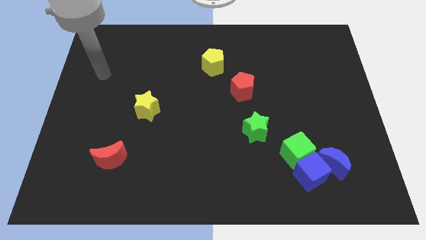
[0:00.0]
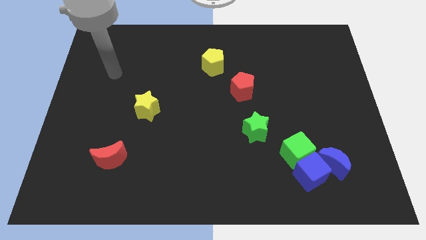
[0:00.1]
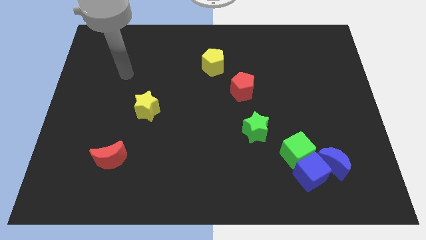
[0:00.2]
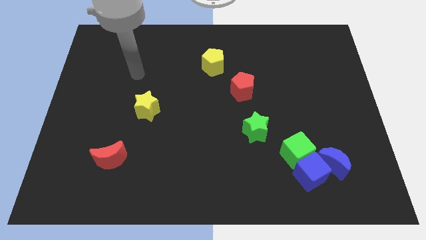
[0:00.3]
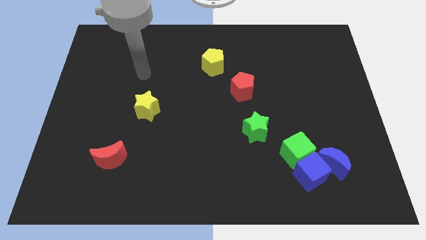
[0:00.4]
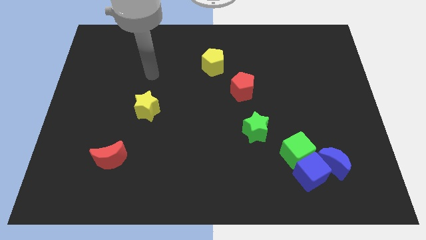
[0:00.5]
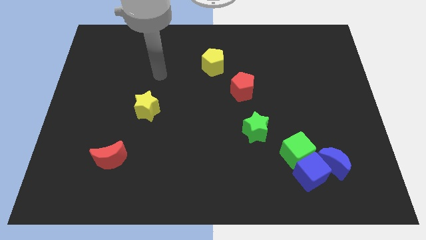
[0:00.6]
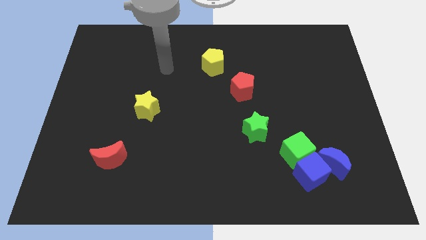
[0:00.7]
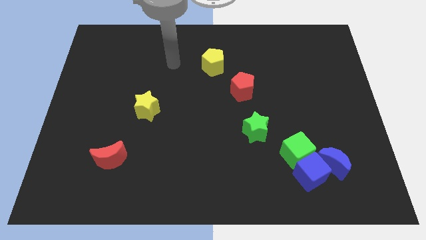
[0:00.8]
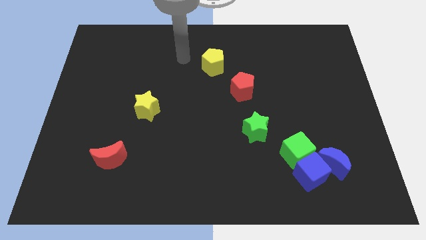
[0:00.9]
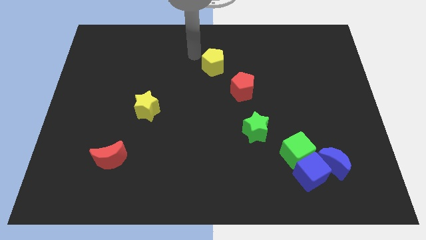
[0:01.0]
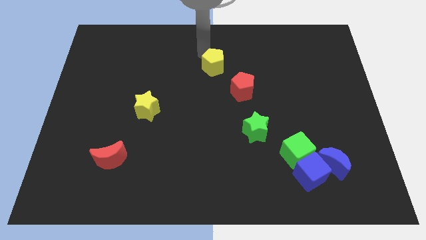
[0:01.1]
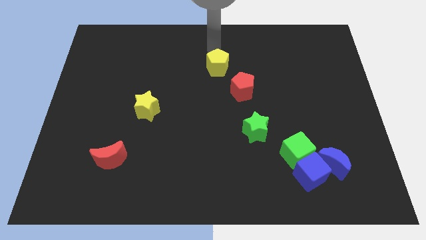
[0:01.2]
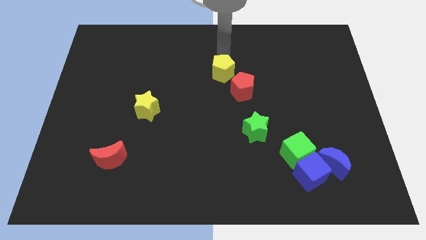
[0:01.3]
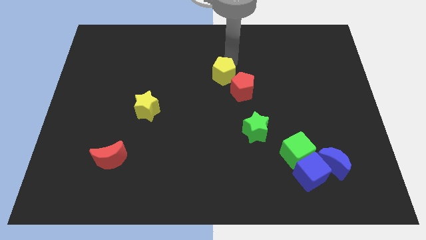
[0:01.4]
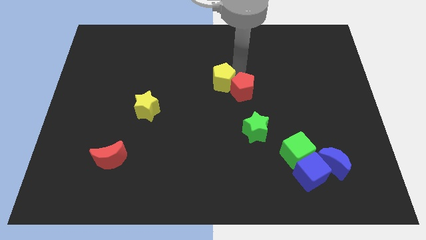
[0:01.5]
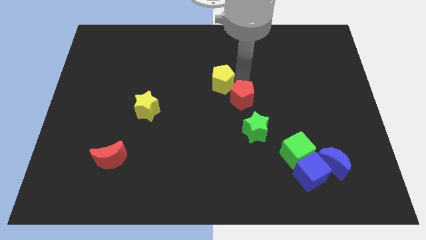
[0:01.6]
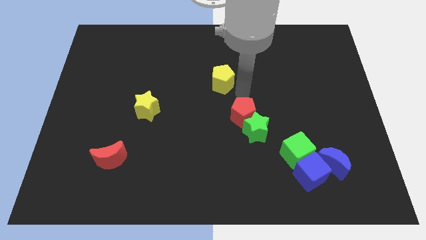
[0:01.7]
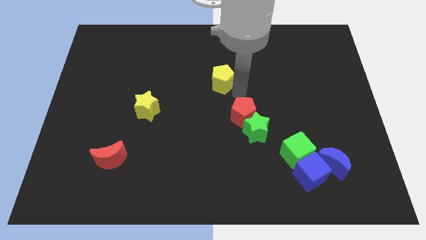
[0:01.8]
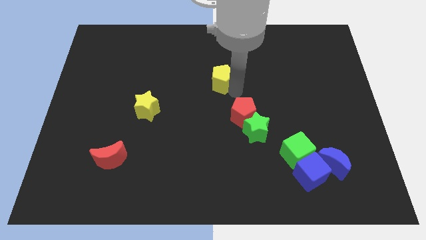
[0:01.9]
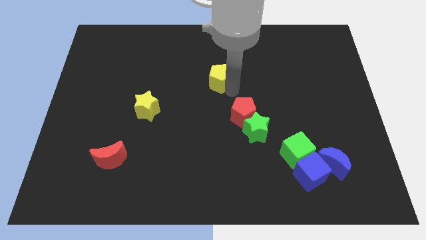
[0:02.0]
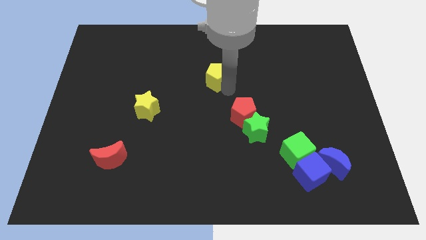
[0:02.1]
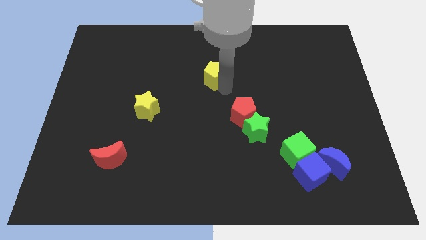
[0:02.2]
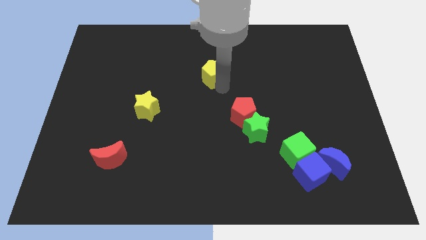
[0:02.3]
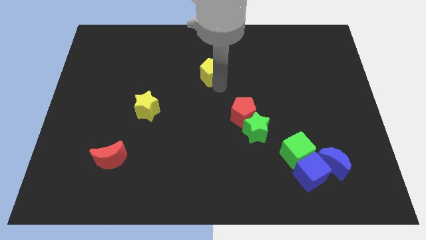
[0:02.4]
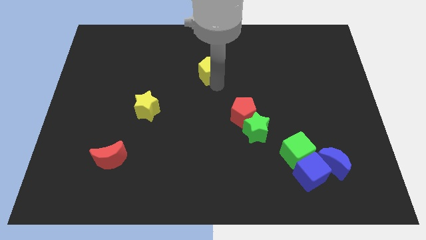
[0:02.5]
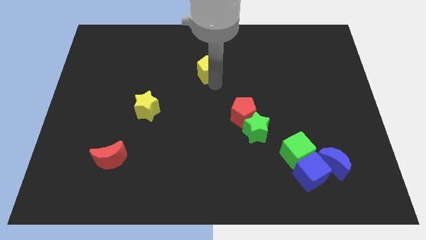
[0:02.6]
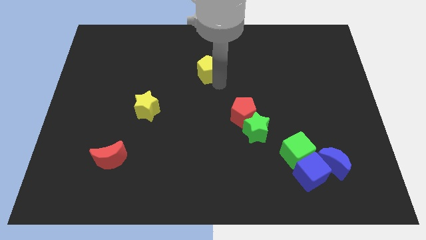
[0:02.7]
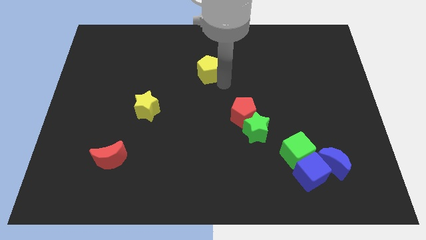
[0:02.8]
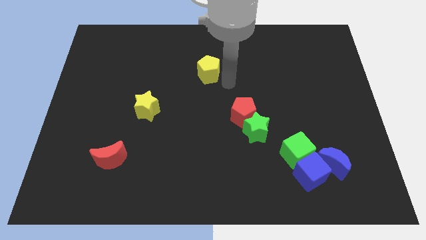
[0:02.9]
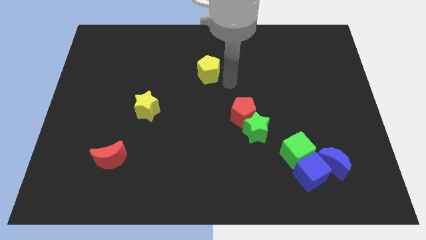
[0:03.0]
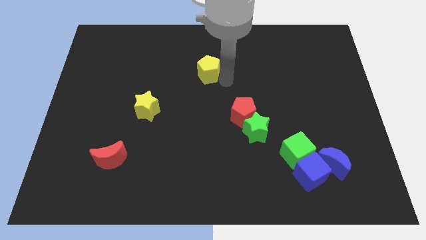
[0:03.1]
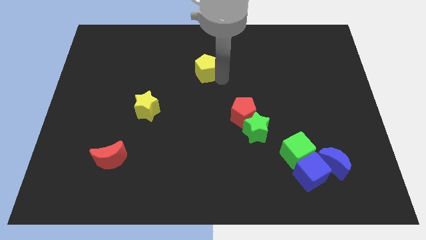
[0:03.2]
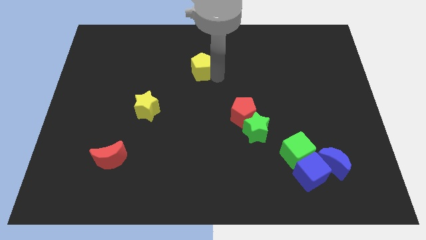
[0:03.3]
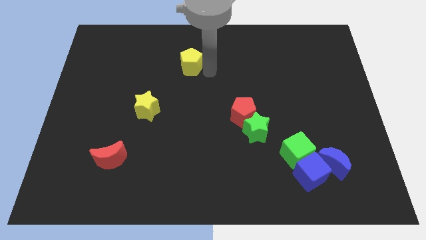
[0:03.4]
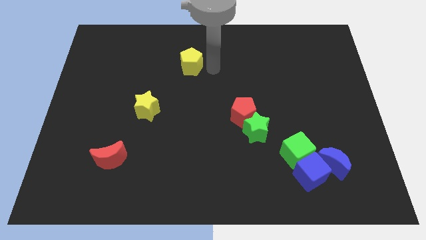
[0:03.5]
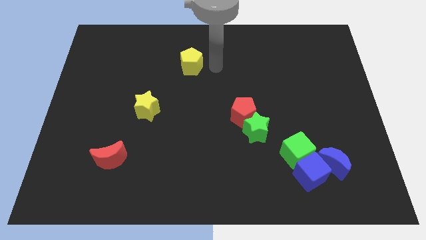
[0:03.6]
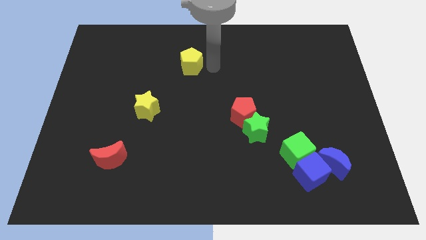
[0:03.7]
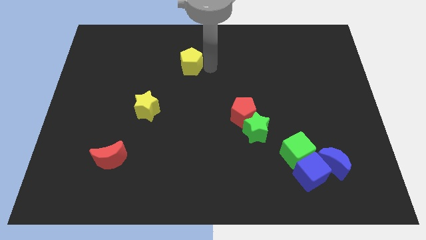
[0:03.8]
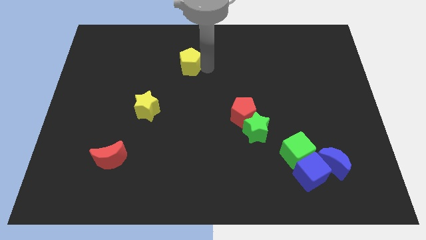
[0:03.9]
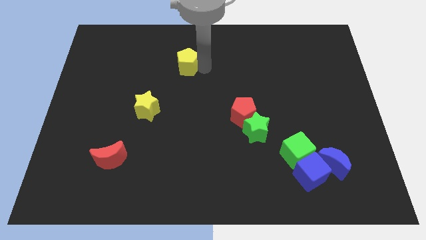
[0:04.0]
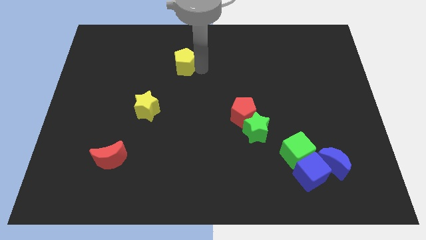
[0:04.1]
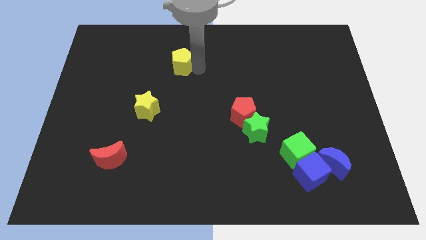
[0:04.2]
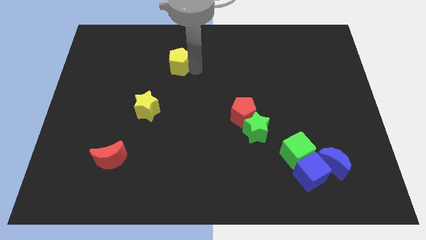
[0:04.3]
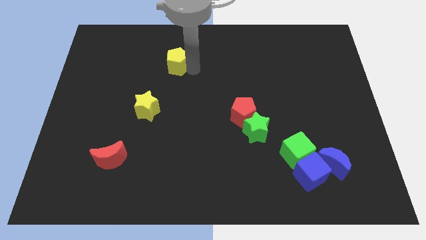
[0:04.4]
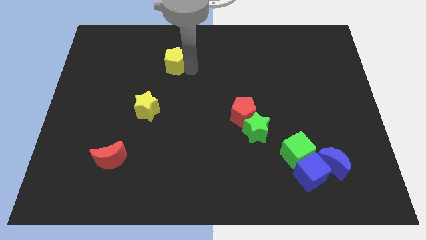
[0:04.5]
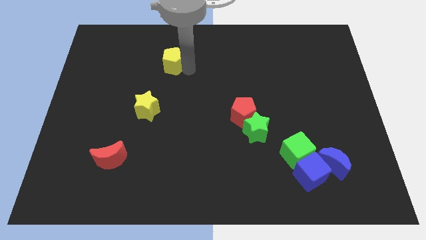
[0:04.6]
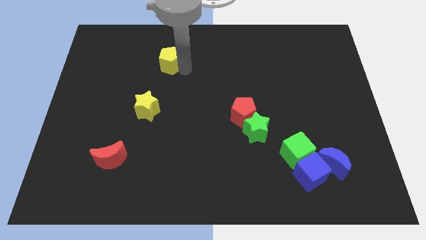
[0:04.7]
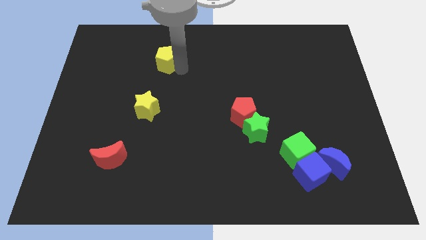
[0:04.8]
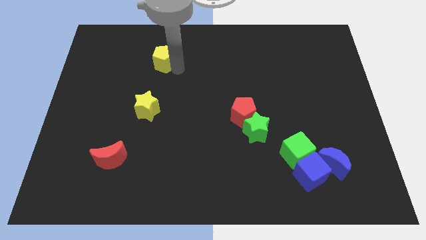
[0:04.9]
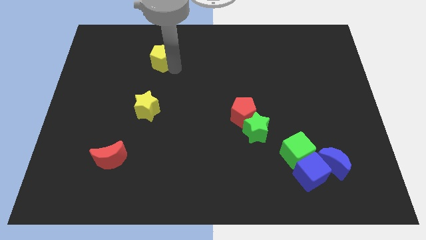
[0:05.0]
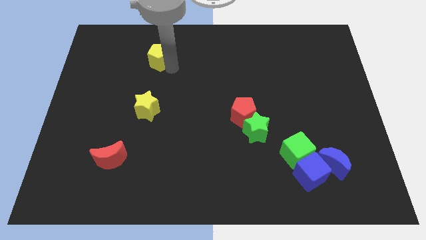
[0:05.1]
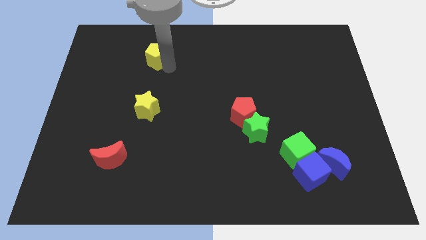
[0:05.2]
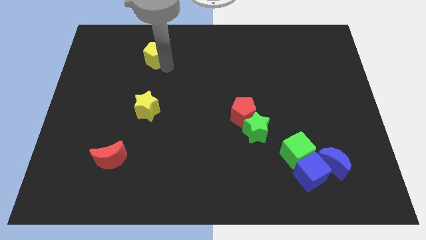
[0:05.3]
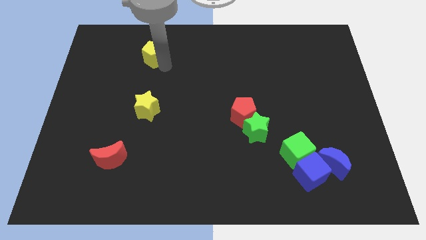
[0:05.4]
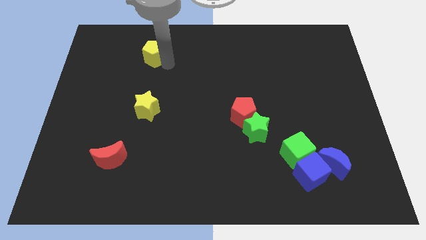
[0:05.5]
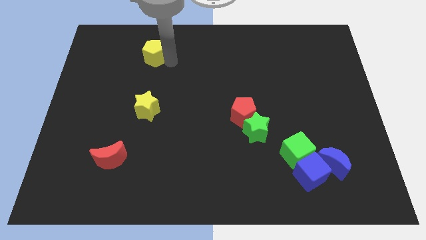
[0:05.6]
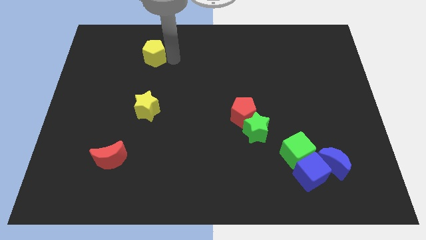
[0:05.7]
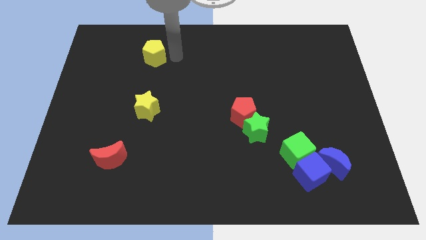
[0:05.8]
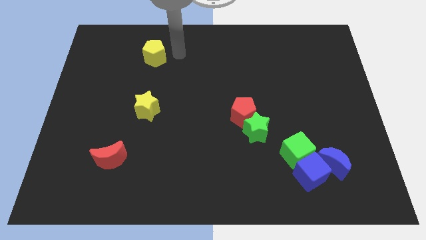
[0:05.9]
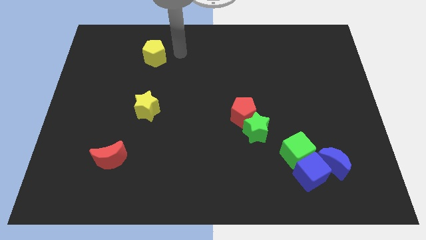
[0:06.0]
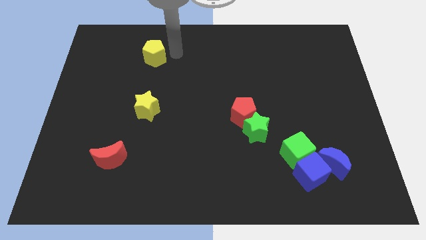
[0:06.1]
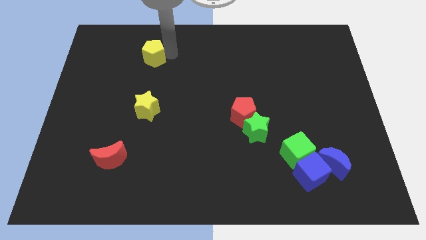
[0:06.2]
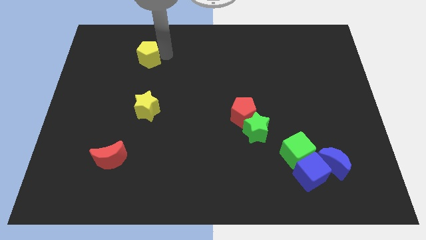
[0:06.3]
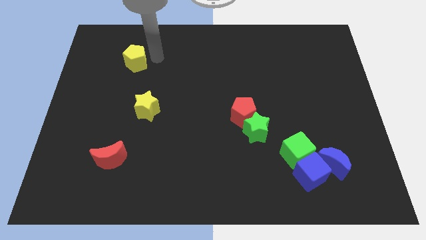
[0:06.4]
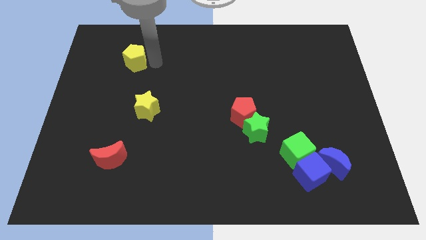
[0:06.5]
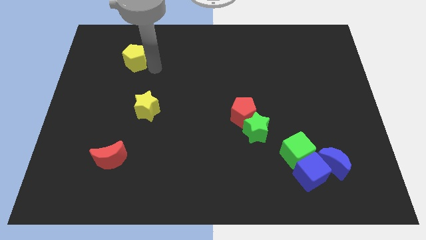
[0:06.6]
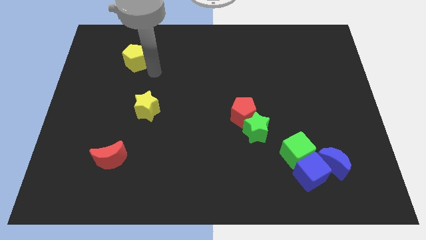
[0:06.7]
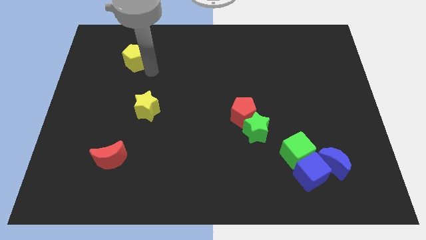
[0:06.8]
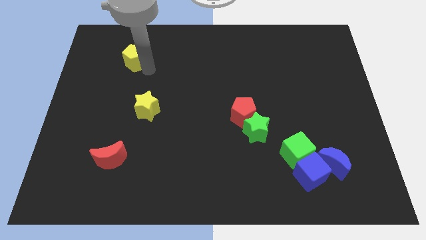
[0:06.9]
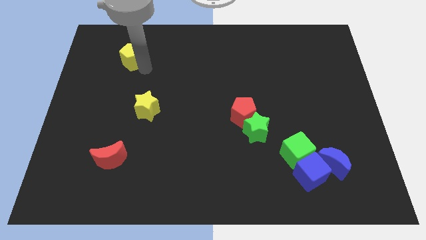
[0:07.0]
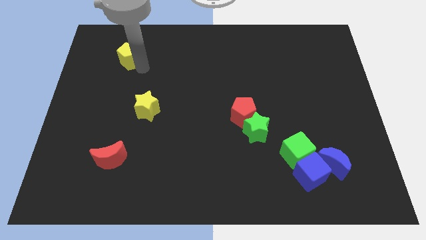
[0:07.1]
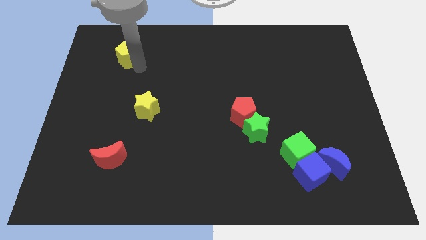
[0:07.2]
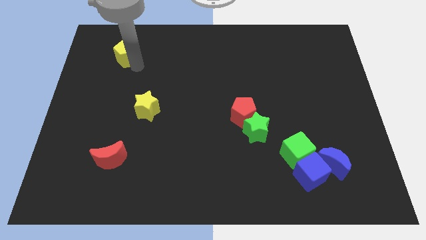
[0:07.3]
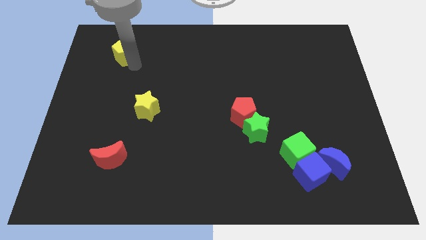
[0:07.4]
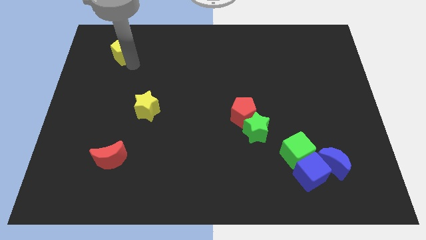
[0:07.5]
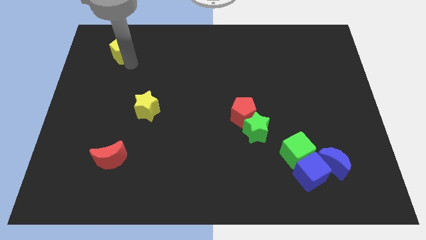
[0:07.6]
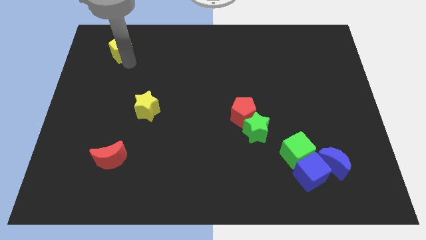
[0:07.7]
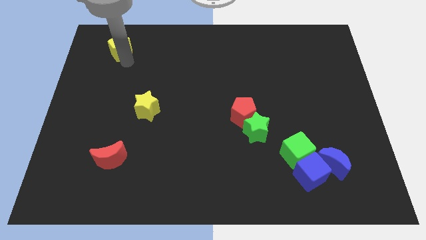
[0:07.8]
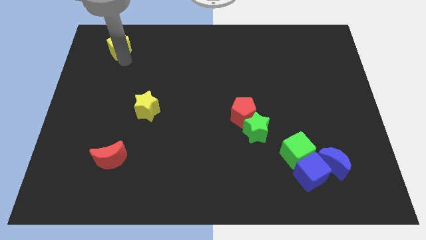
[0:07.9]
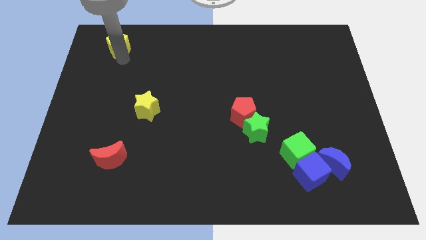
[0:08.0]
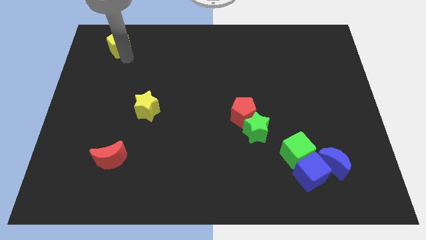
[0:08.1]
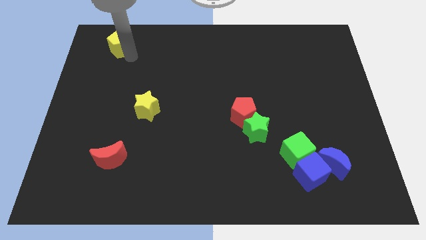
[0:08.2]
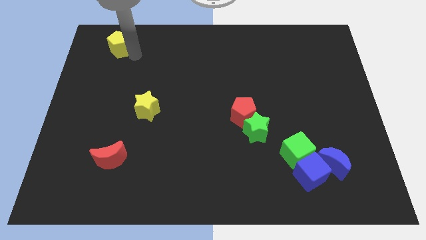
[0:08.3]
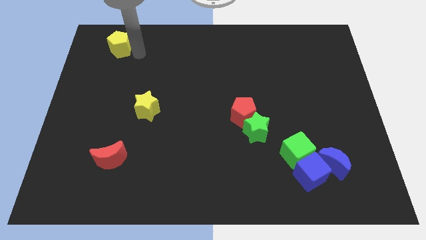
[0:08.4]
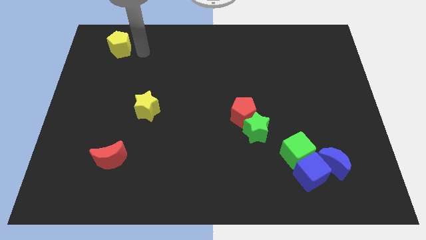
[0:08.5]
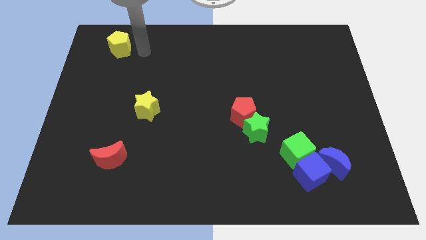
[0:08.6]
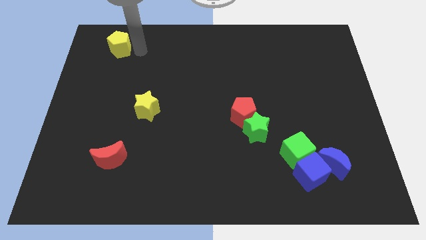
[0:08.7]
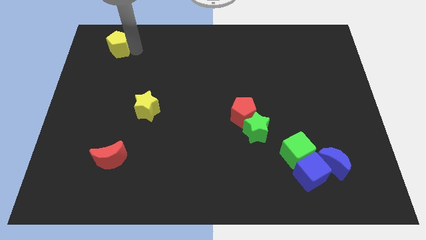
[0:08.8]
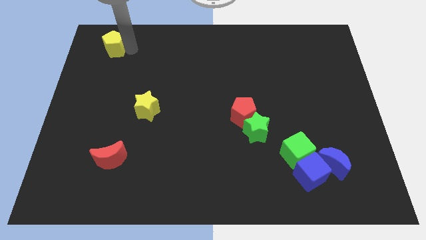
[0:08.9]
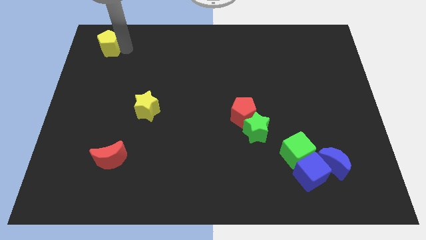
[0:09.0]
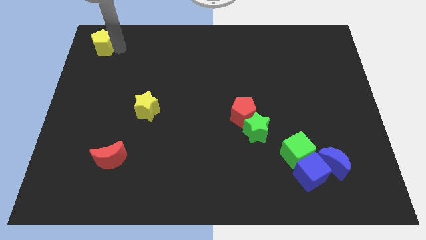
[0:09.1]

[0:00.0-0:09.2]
put the yellow pentagon to the top left of the board
